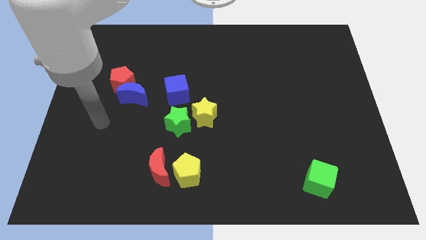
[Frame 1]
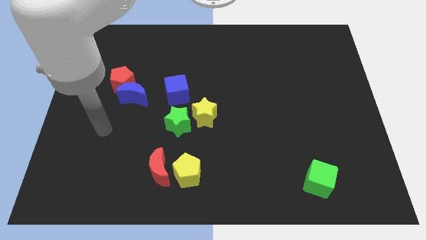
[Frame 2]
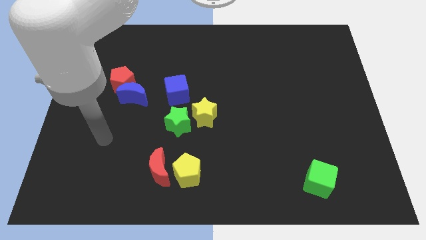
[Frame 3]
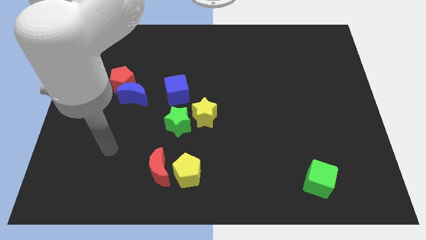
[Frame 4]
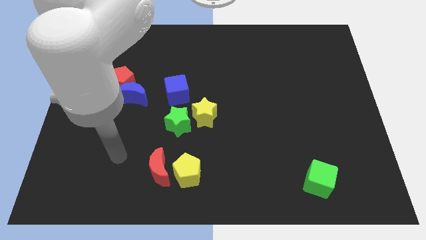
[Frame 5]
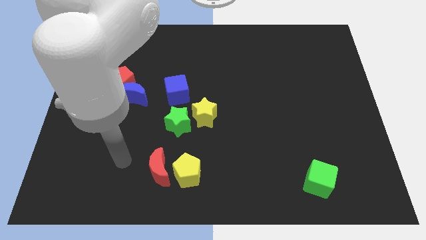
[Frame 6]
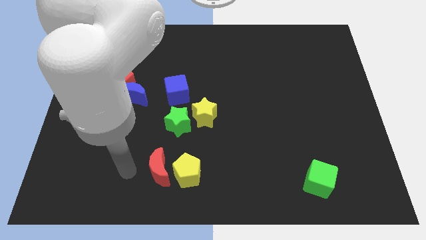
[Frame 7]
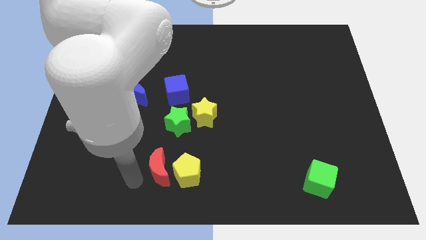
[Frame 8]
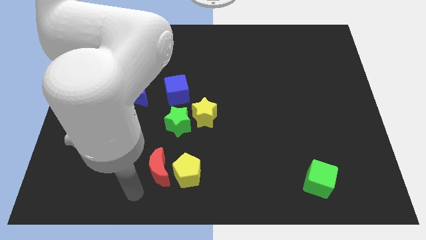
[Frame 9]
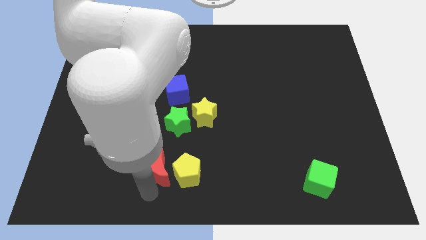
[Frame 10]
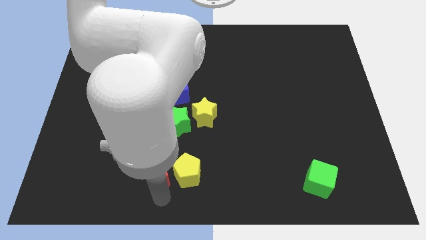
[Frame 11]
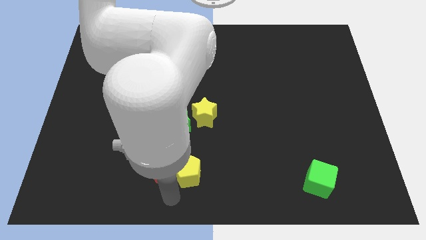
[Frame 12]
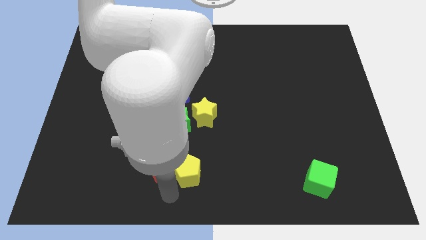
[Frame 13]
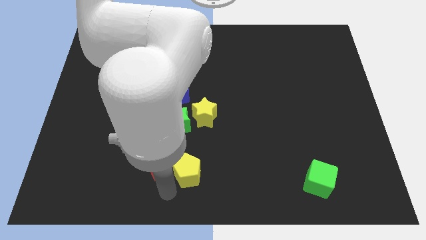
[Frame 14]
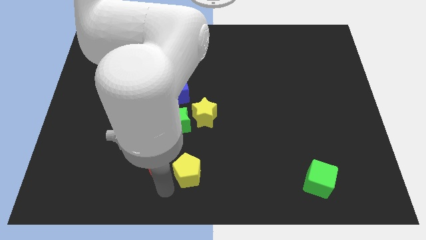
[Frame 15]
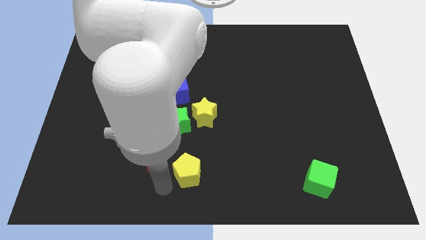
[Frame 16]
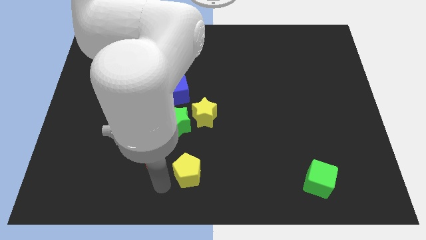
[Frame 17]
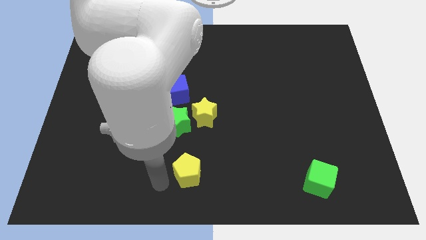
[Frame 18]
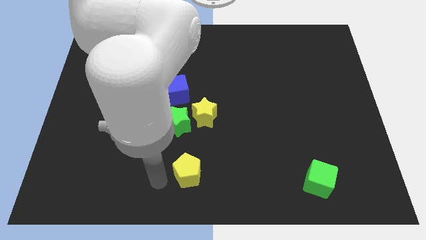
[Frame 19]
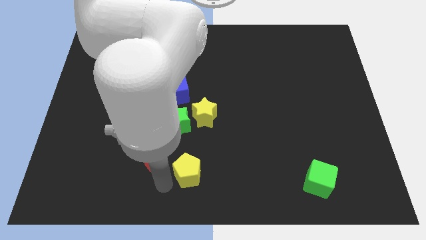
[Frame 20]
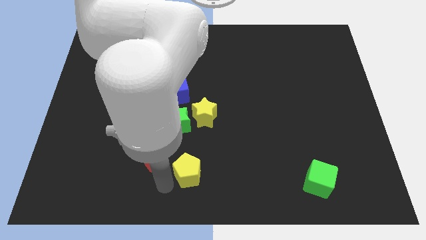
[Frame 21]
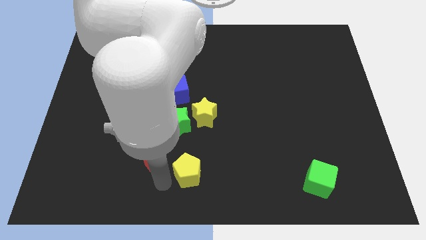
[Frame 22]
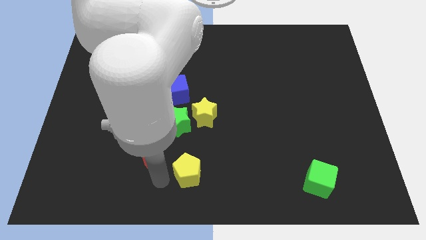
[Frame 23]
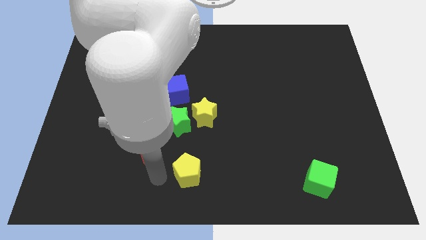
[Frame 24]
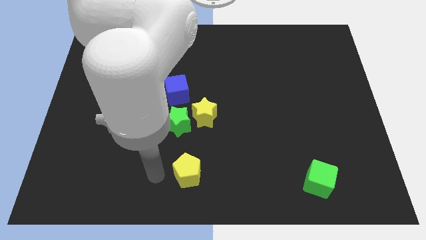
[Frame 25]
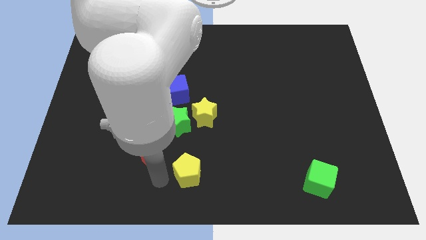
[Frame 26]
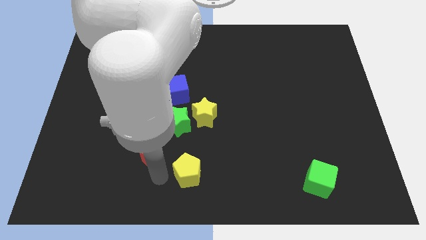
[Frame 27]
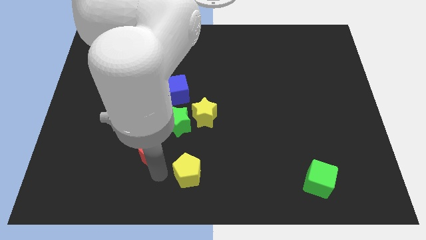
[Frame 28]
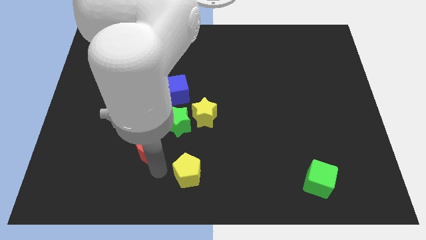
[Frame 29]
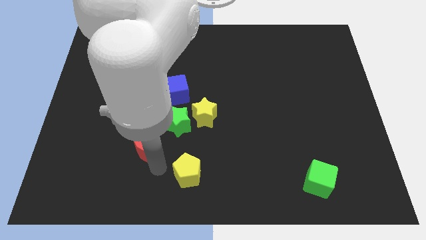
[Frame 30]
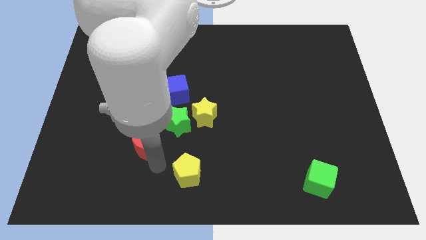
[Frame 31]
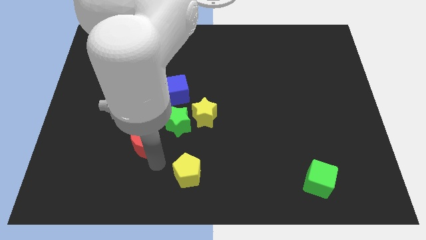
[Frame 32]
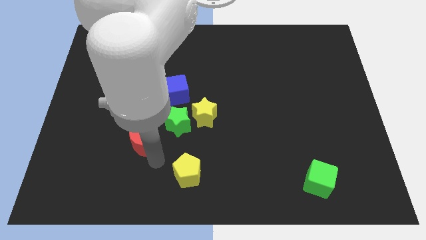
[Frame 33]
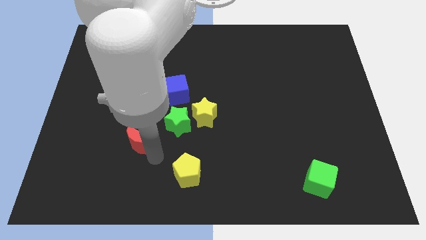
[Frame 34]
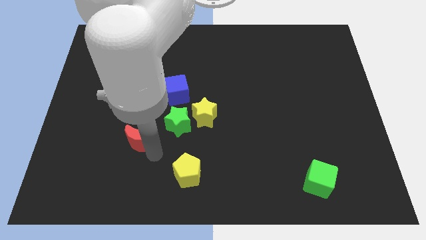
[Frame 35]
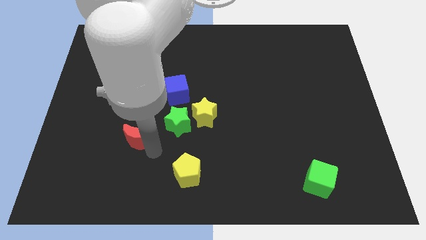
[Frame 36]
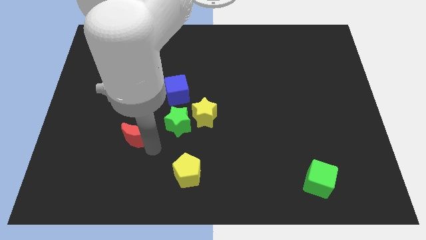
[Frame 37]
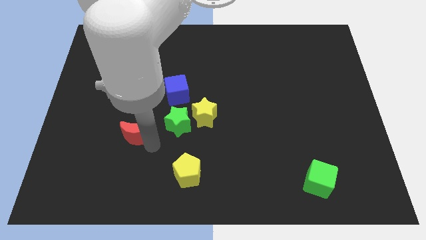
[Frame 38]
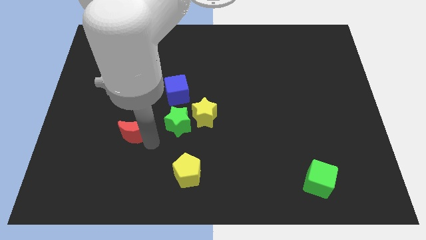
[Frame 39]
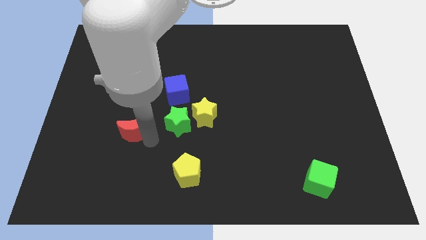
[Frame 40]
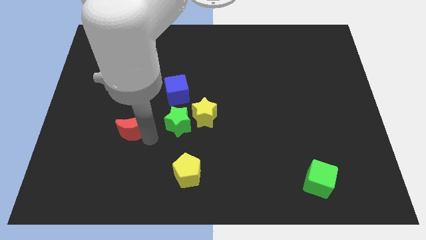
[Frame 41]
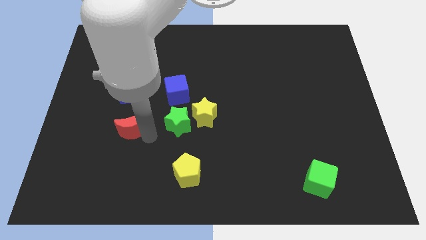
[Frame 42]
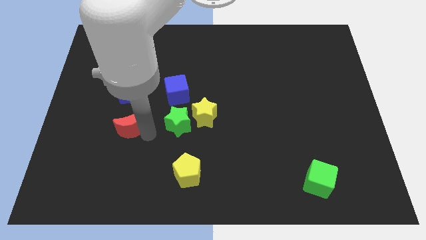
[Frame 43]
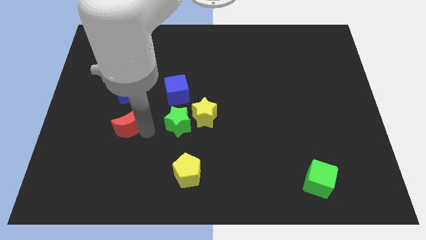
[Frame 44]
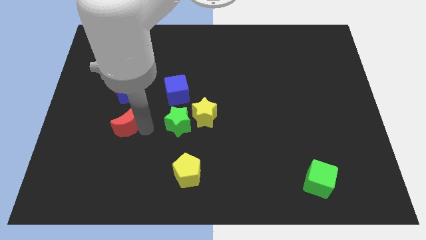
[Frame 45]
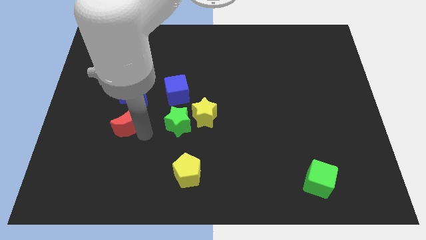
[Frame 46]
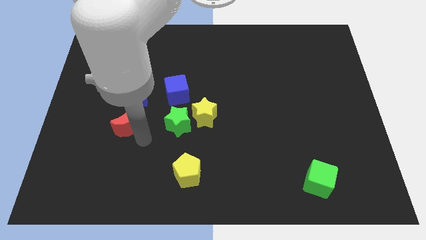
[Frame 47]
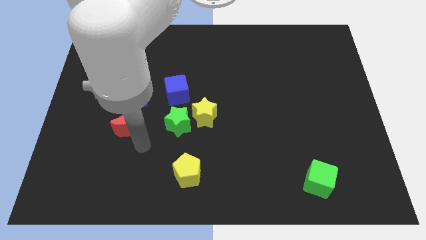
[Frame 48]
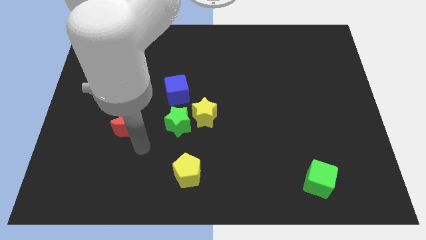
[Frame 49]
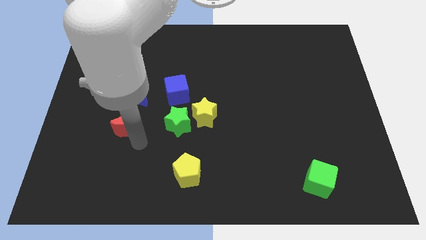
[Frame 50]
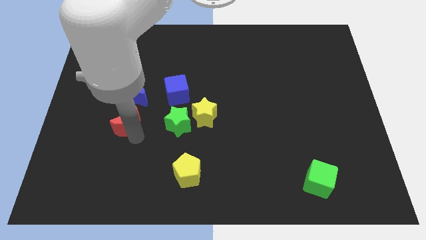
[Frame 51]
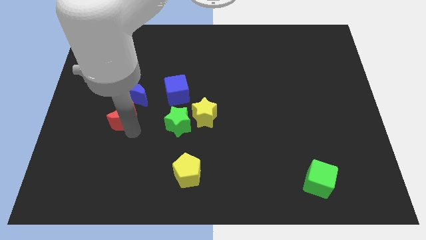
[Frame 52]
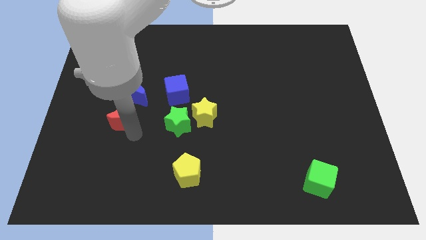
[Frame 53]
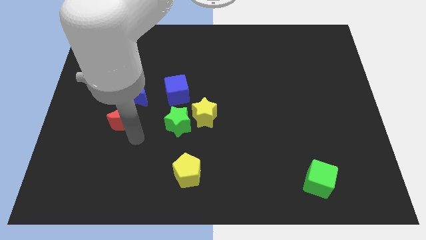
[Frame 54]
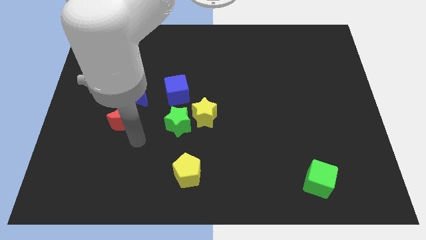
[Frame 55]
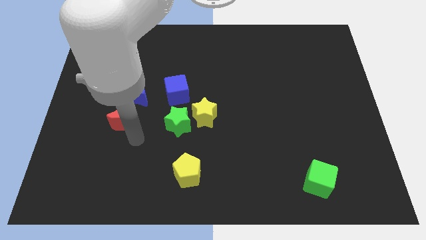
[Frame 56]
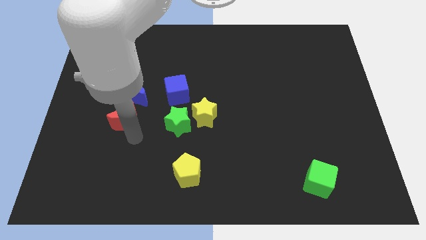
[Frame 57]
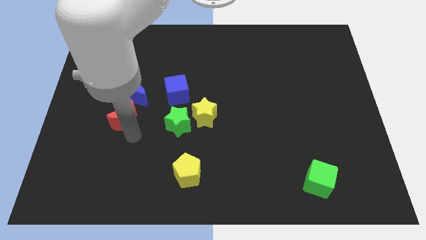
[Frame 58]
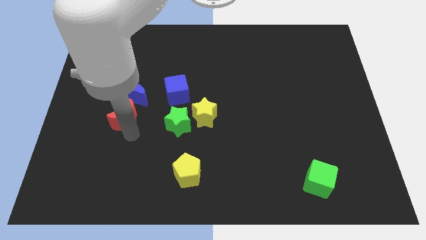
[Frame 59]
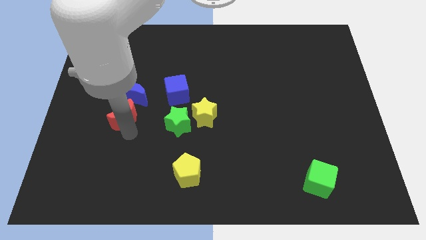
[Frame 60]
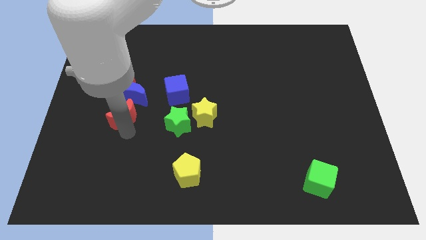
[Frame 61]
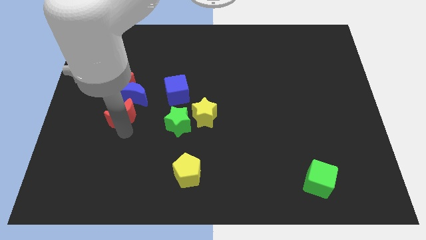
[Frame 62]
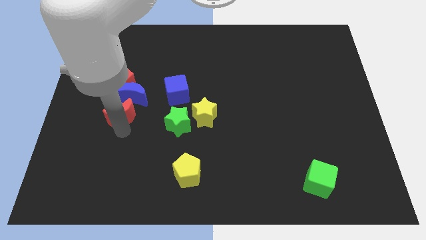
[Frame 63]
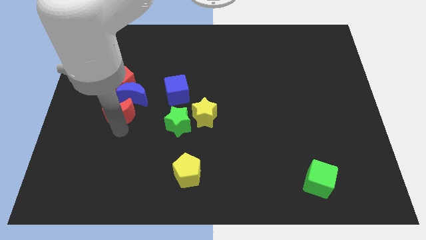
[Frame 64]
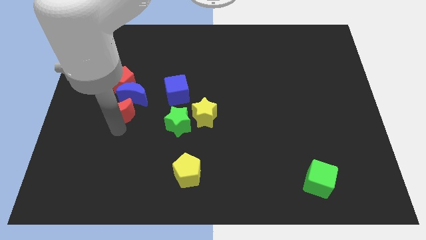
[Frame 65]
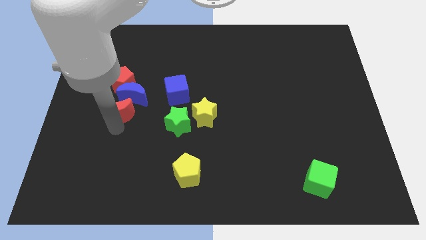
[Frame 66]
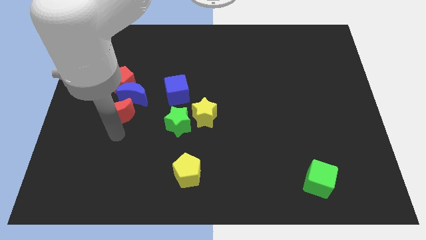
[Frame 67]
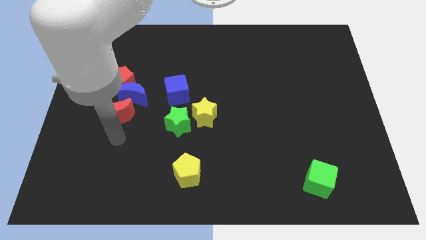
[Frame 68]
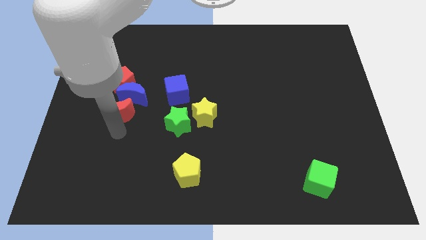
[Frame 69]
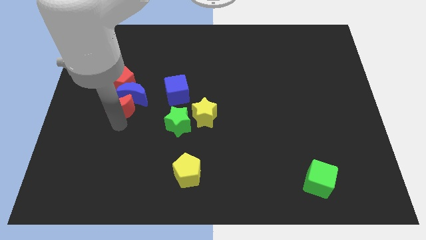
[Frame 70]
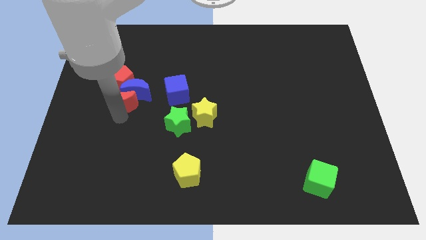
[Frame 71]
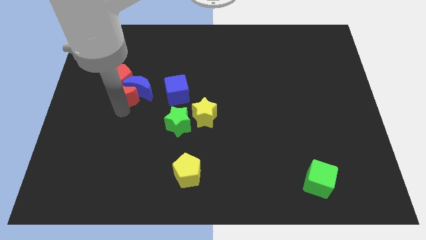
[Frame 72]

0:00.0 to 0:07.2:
move the red moon towards the red pentagon

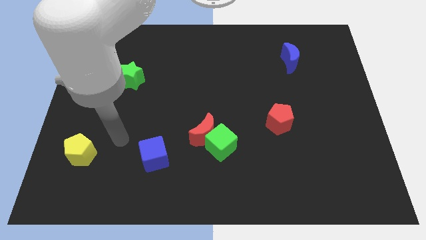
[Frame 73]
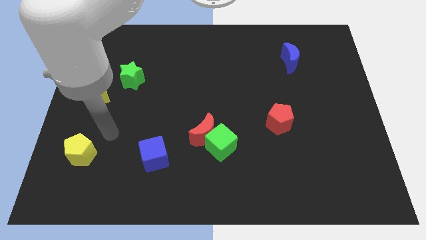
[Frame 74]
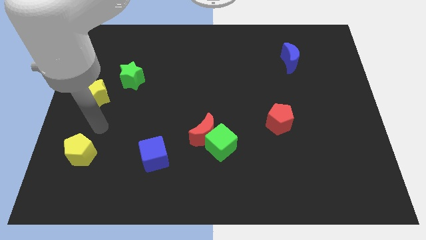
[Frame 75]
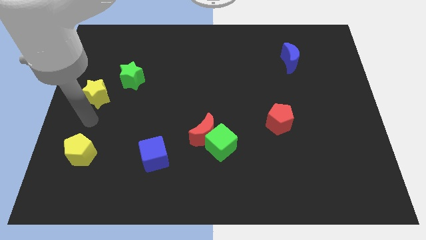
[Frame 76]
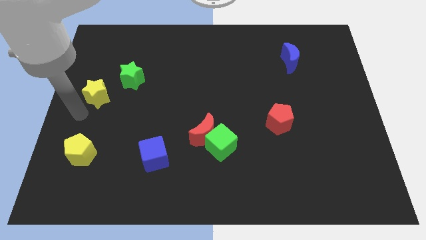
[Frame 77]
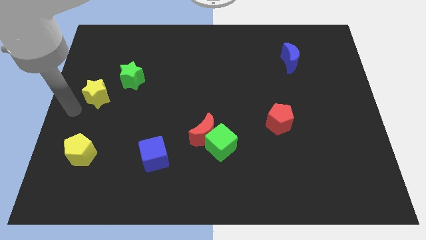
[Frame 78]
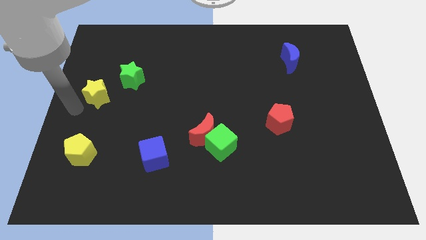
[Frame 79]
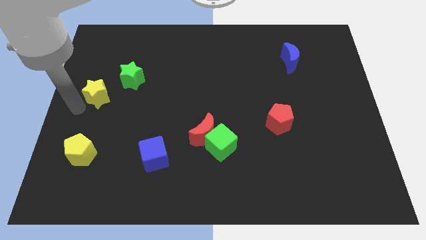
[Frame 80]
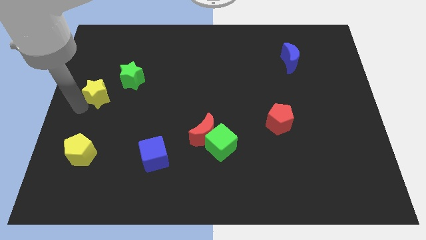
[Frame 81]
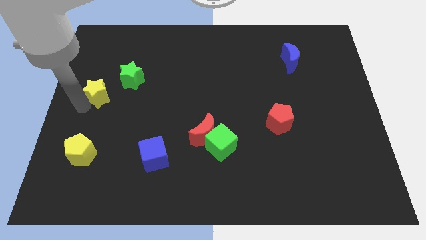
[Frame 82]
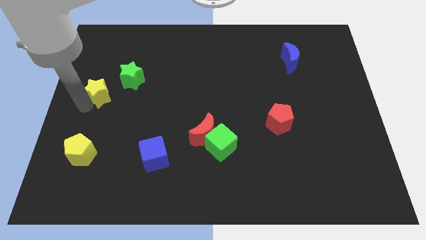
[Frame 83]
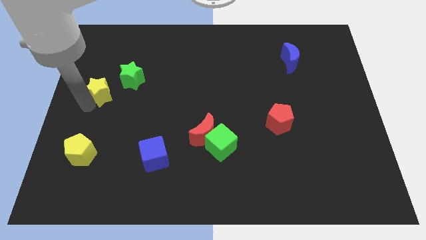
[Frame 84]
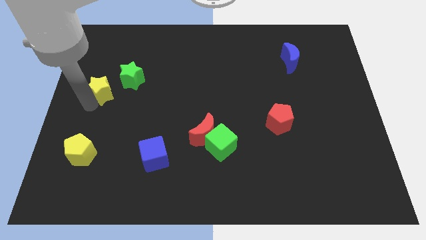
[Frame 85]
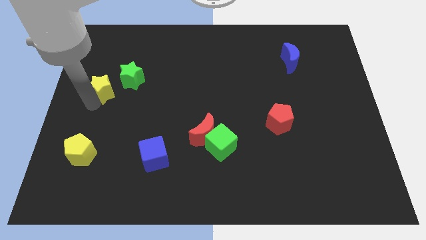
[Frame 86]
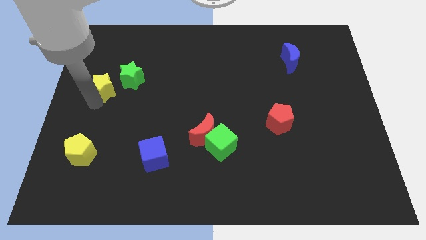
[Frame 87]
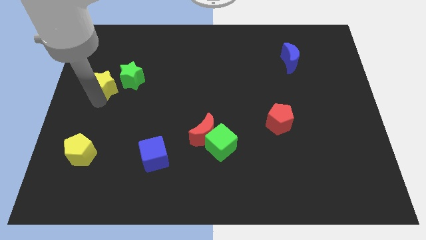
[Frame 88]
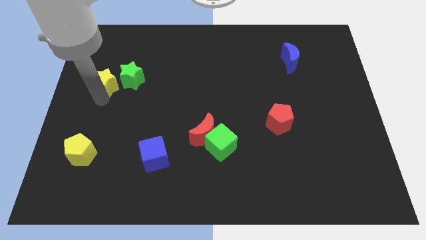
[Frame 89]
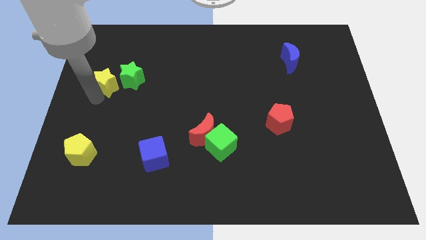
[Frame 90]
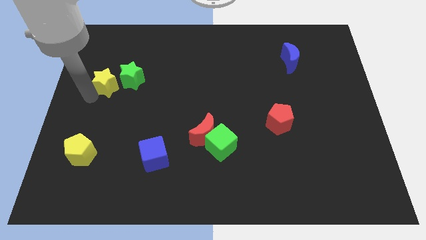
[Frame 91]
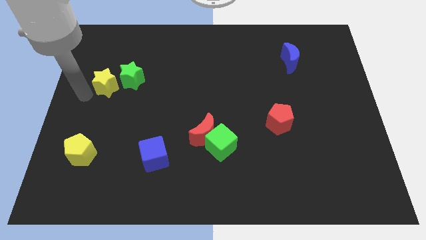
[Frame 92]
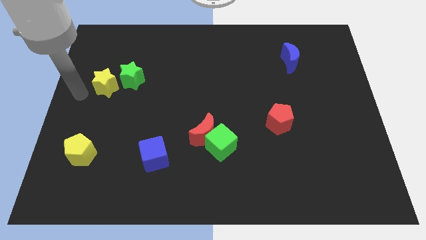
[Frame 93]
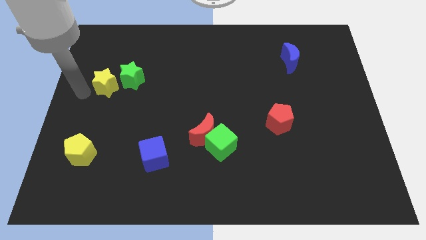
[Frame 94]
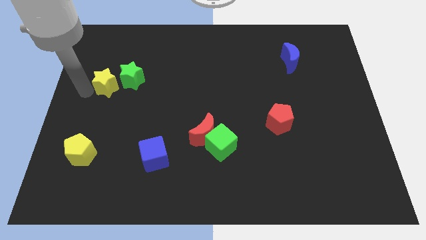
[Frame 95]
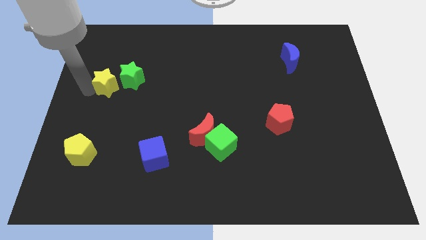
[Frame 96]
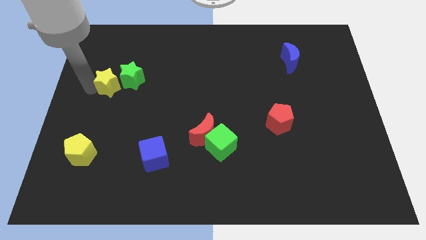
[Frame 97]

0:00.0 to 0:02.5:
slide the yellow star next to the green star
